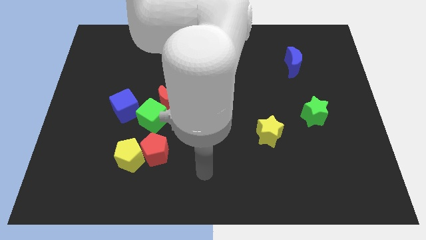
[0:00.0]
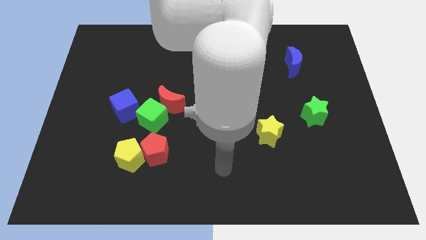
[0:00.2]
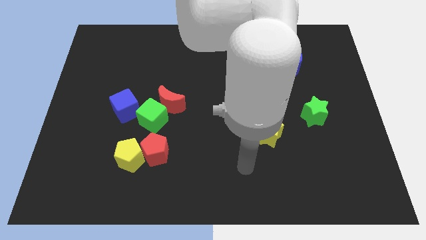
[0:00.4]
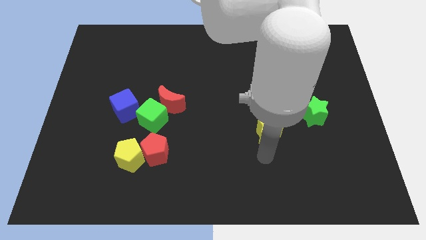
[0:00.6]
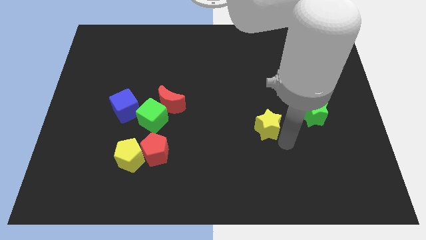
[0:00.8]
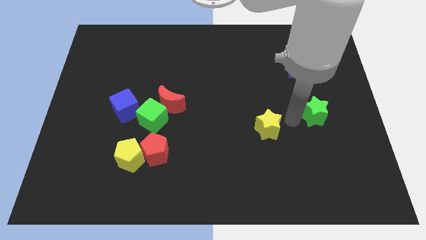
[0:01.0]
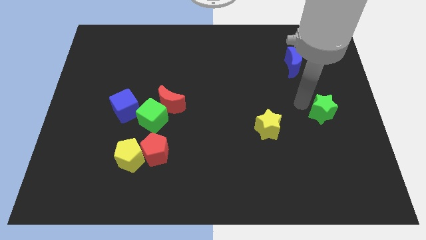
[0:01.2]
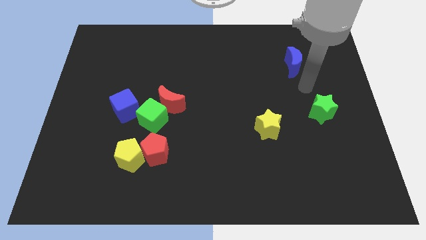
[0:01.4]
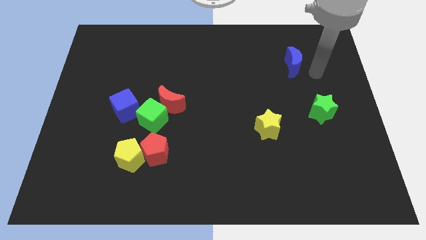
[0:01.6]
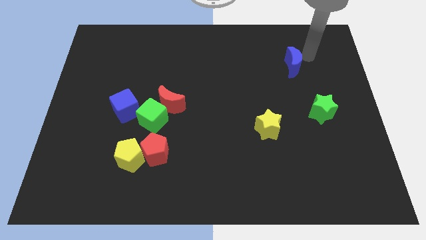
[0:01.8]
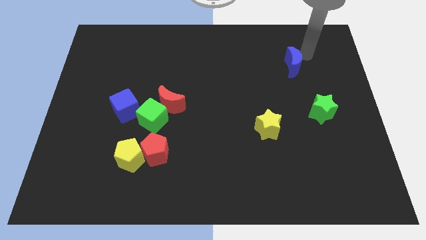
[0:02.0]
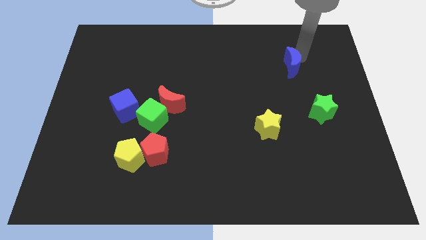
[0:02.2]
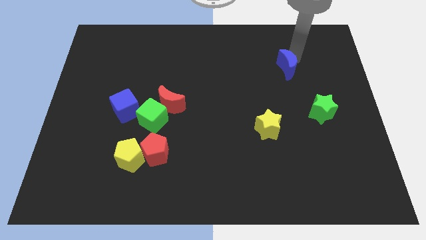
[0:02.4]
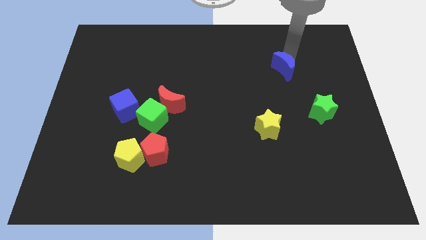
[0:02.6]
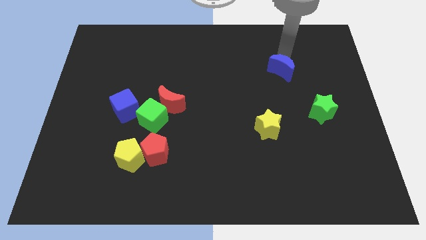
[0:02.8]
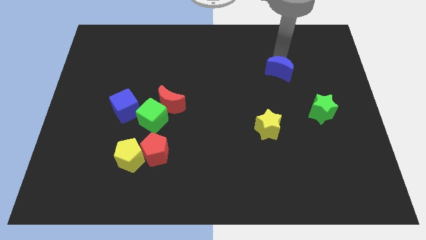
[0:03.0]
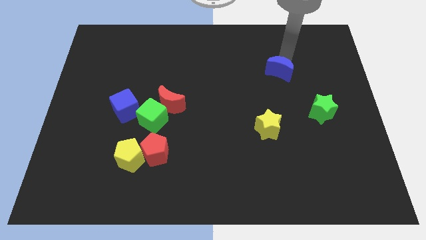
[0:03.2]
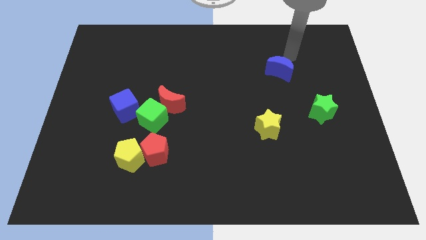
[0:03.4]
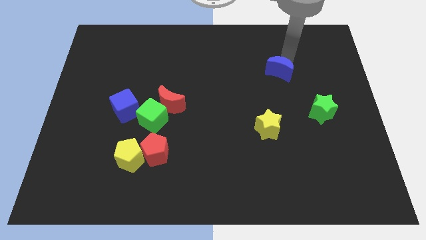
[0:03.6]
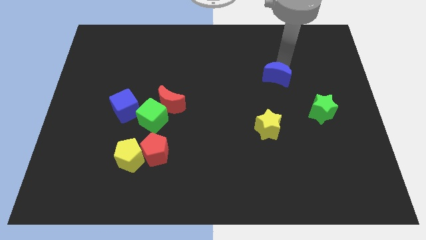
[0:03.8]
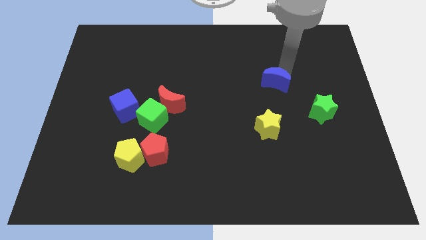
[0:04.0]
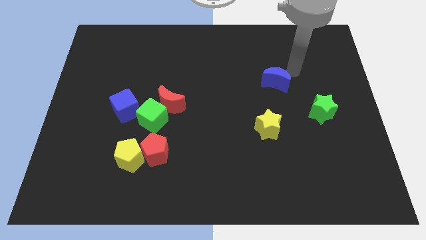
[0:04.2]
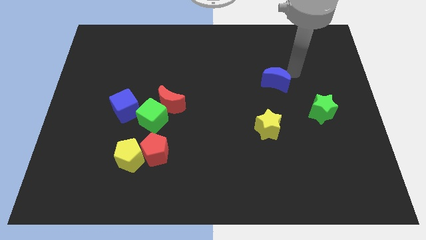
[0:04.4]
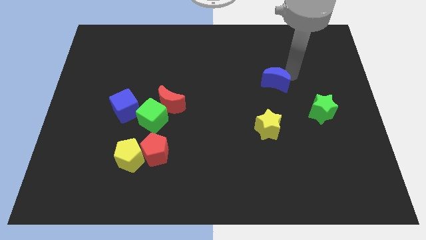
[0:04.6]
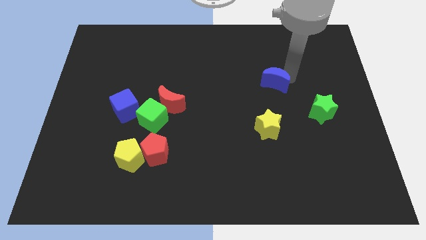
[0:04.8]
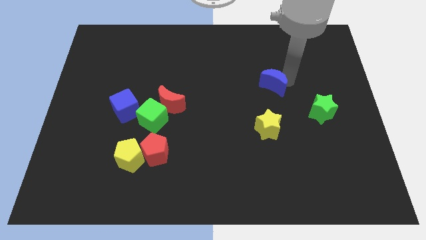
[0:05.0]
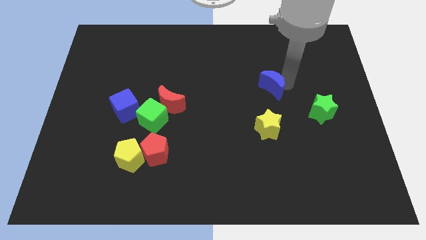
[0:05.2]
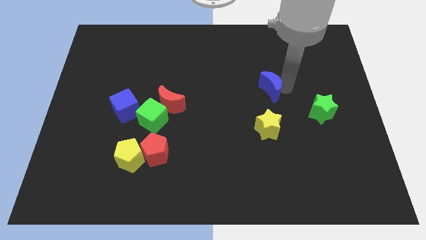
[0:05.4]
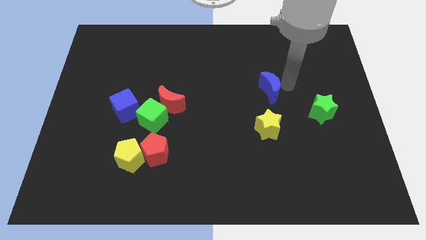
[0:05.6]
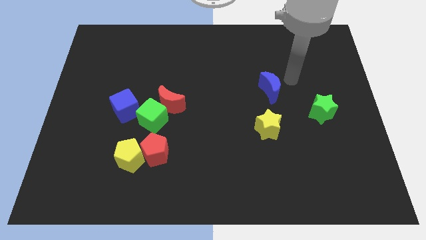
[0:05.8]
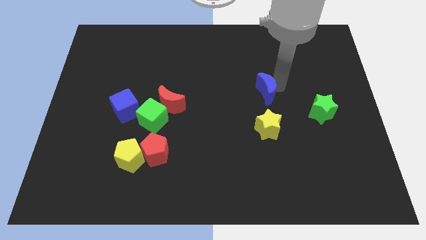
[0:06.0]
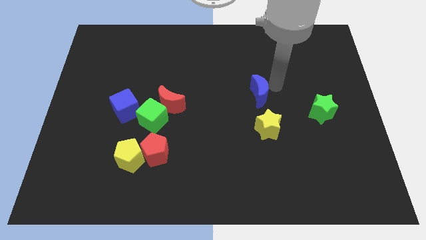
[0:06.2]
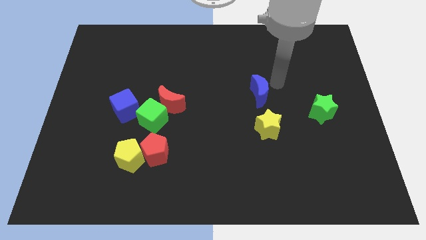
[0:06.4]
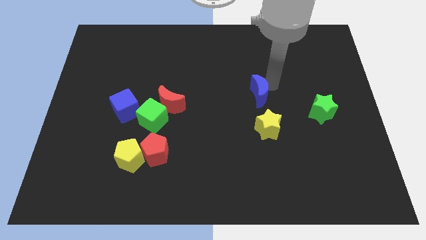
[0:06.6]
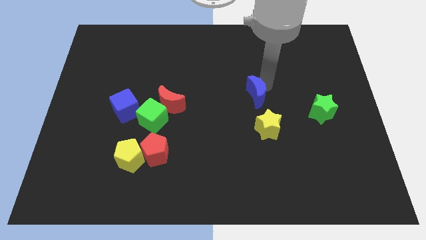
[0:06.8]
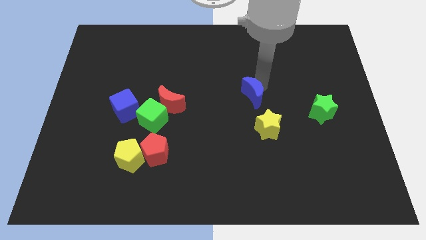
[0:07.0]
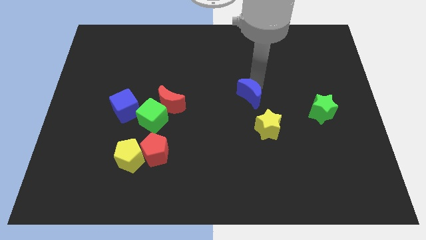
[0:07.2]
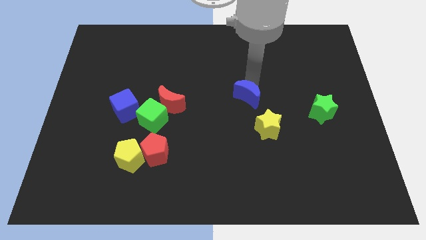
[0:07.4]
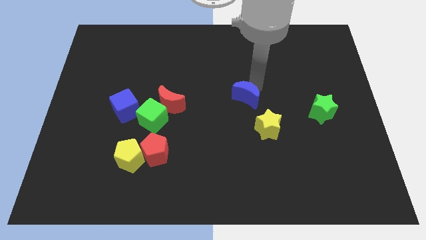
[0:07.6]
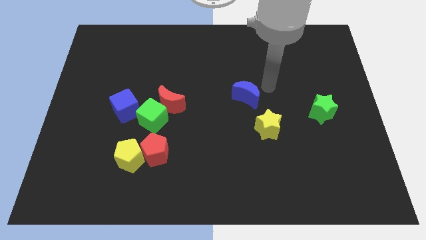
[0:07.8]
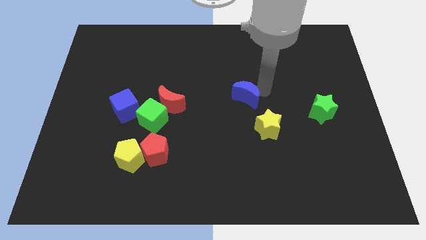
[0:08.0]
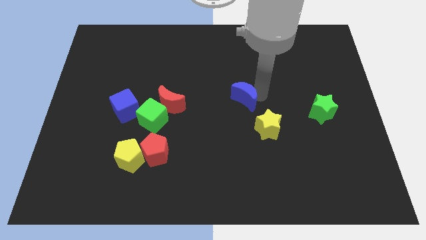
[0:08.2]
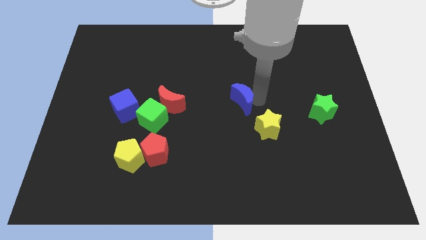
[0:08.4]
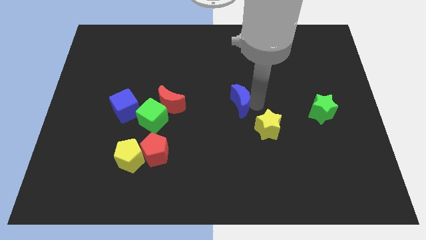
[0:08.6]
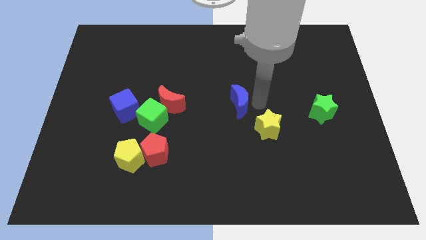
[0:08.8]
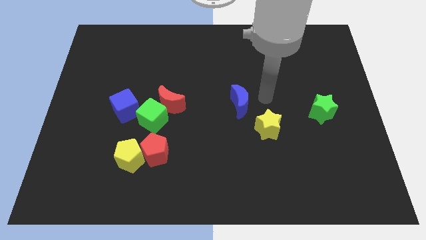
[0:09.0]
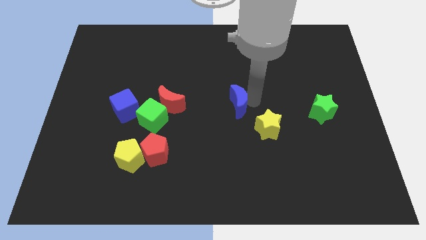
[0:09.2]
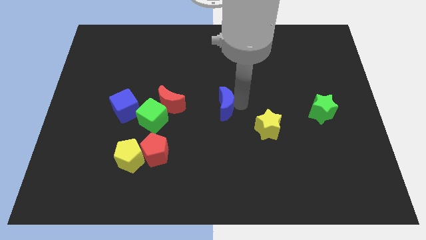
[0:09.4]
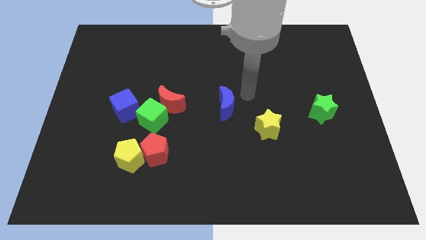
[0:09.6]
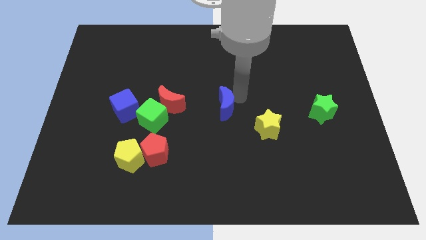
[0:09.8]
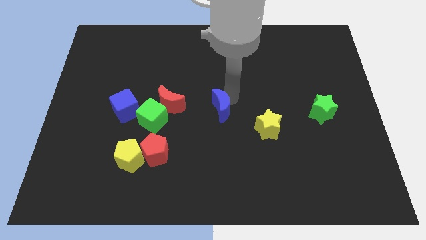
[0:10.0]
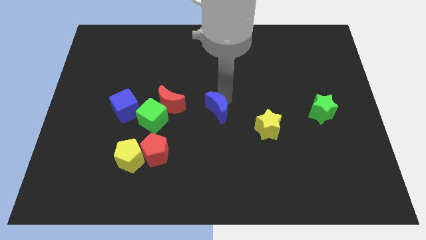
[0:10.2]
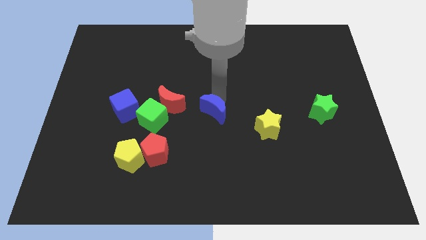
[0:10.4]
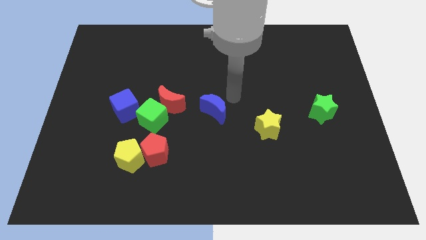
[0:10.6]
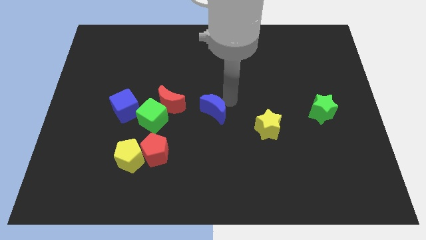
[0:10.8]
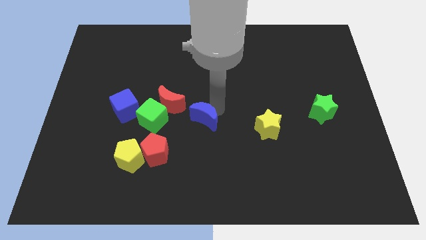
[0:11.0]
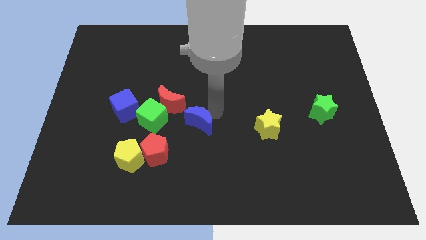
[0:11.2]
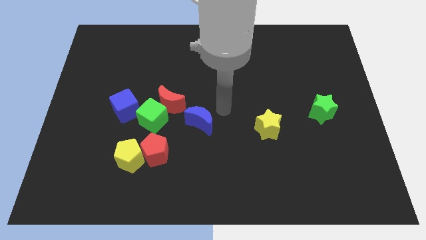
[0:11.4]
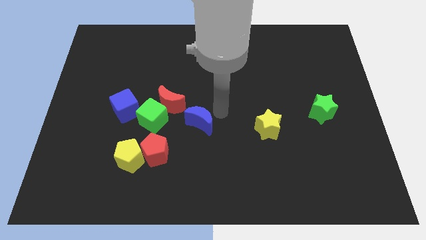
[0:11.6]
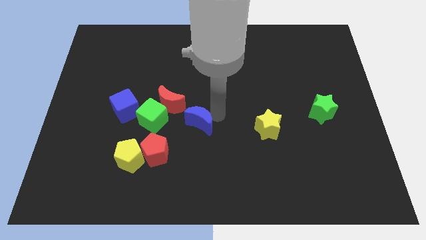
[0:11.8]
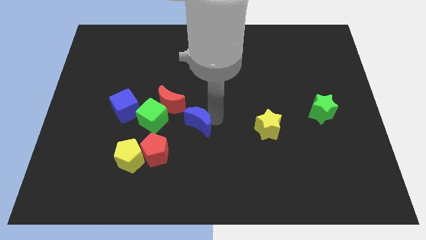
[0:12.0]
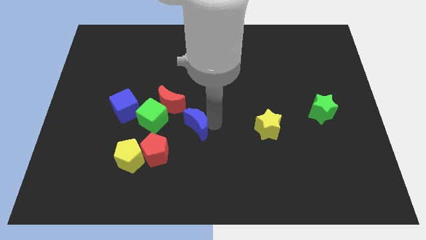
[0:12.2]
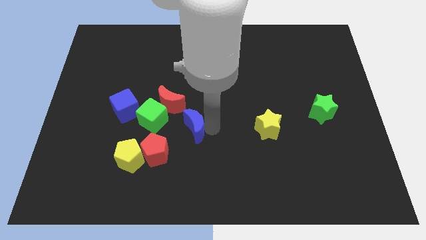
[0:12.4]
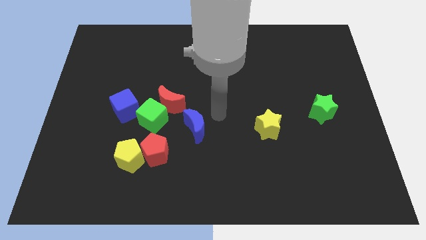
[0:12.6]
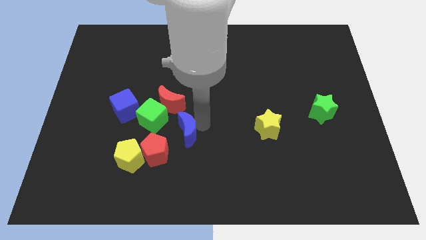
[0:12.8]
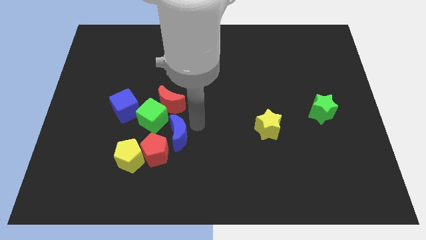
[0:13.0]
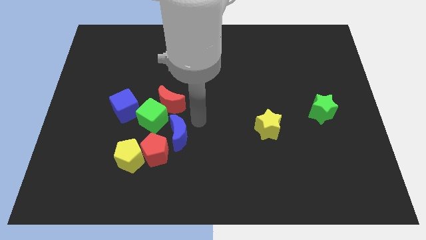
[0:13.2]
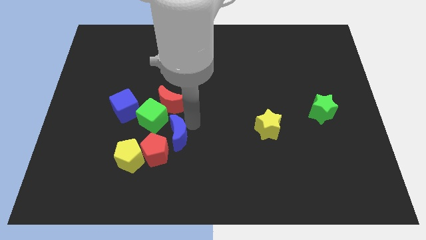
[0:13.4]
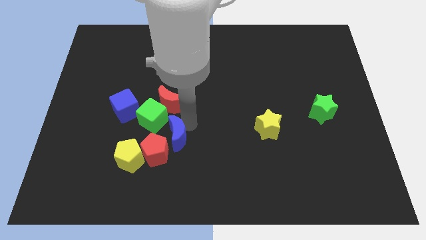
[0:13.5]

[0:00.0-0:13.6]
push the blue moon to the red pentagon
